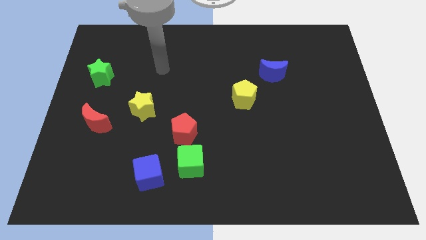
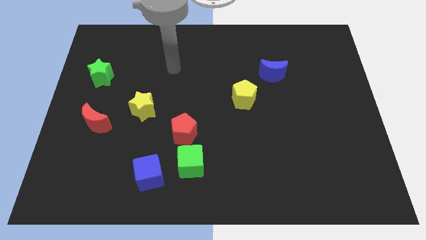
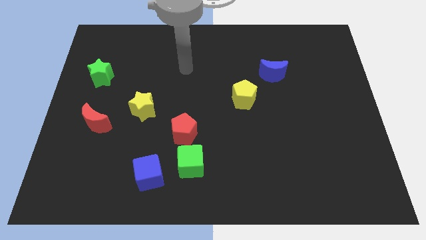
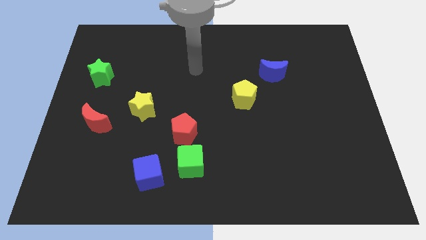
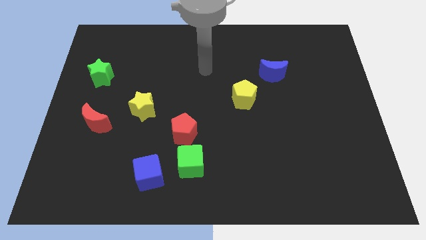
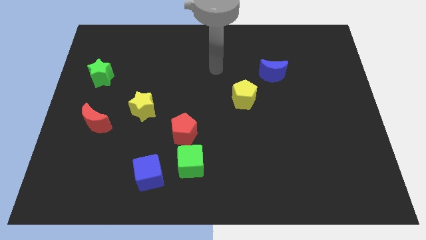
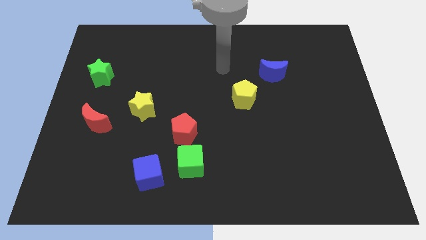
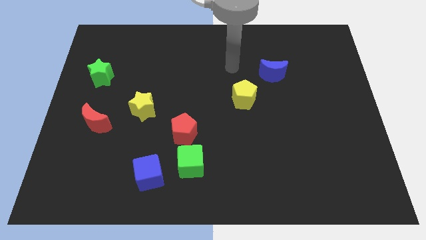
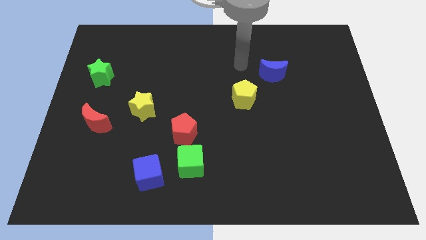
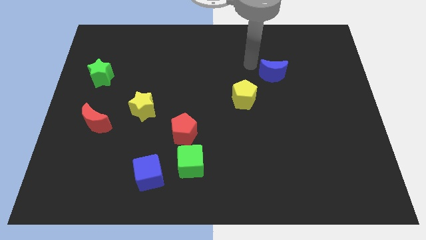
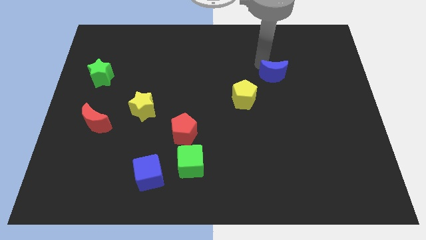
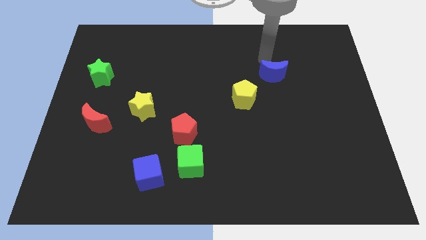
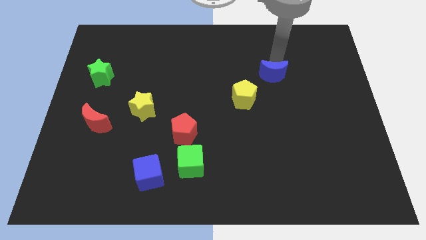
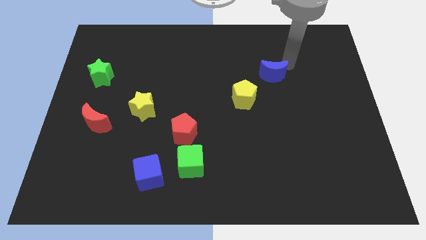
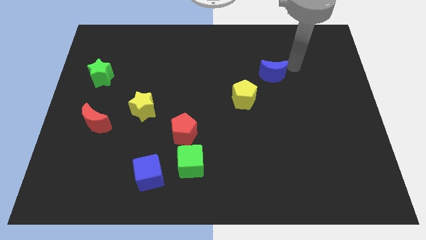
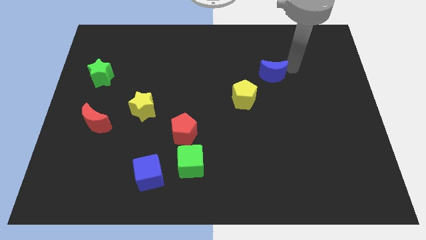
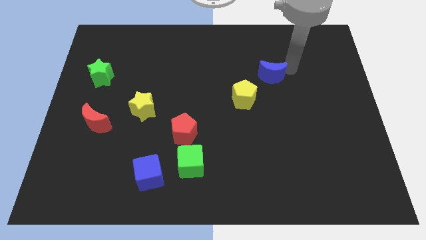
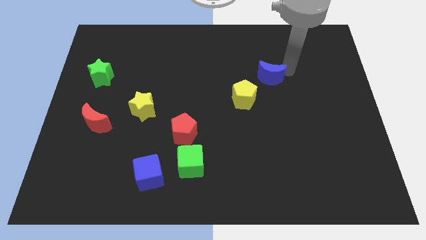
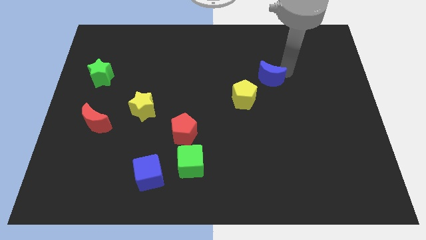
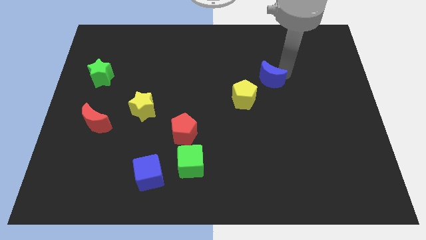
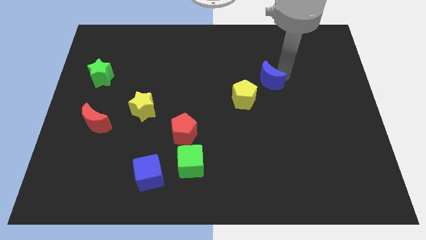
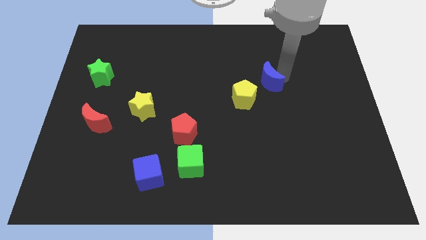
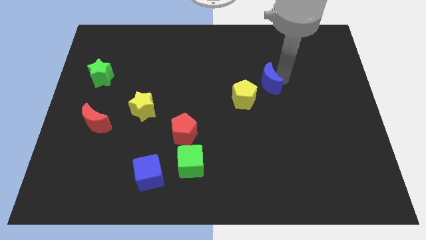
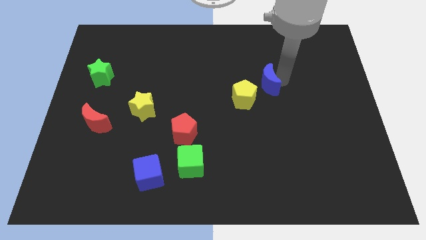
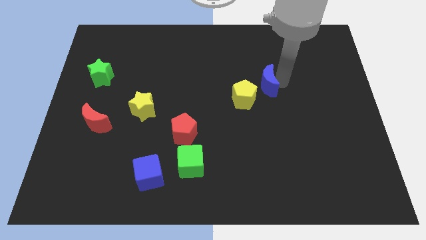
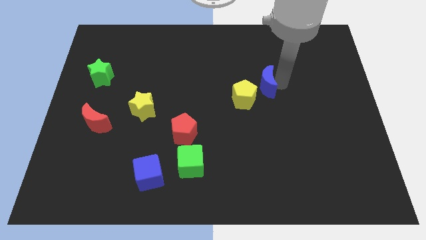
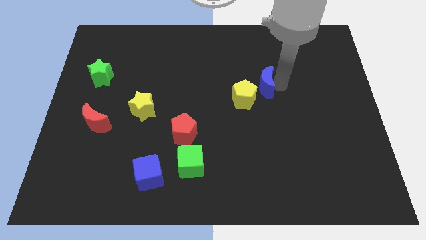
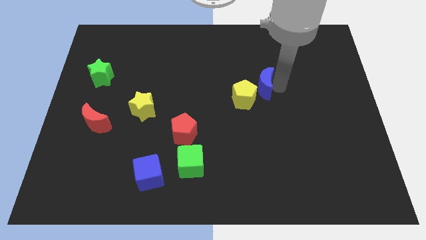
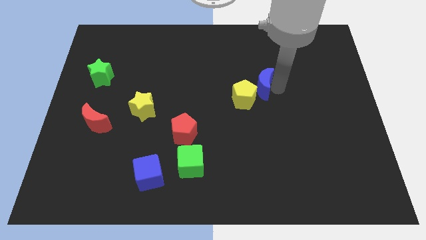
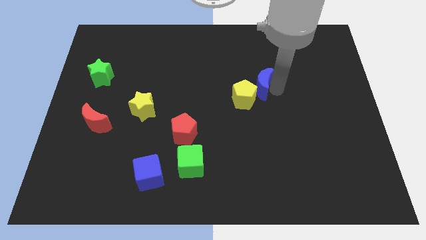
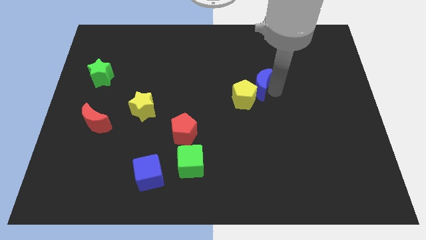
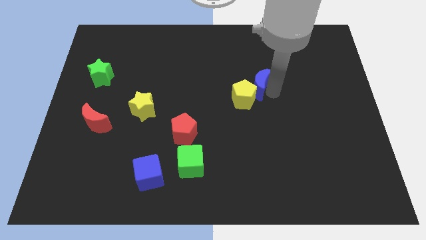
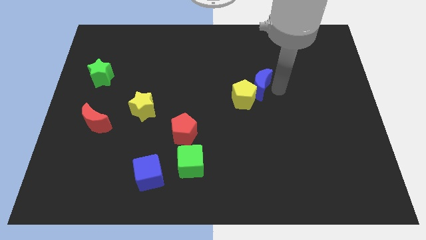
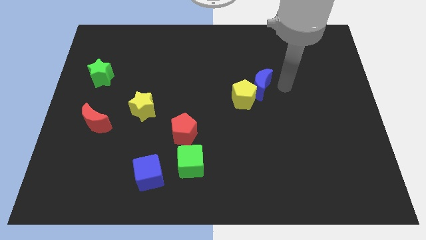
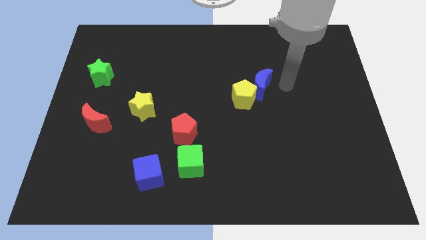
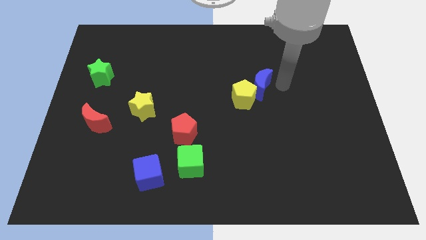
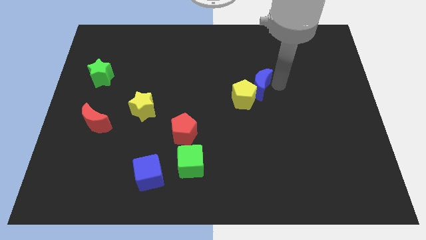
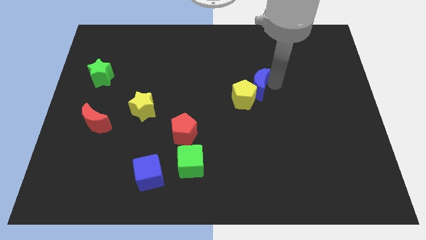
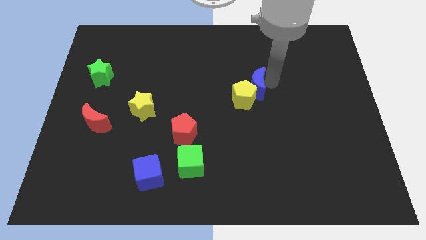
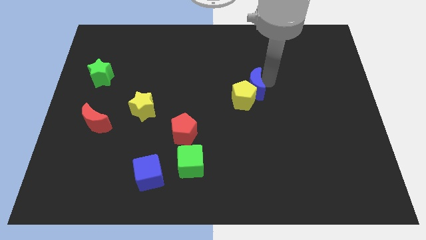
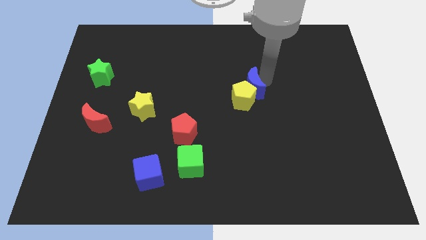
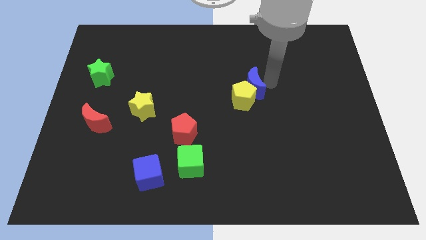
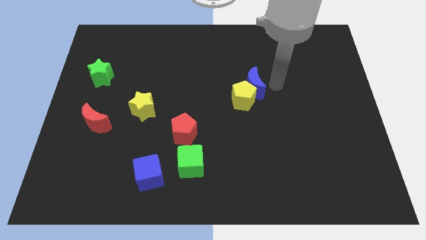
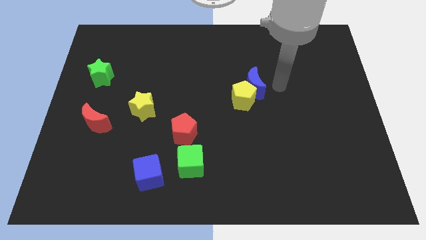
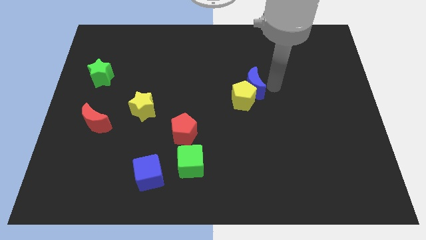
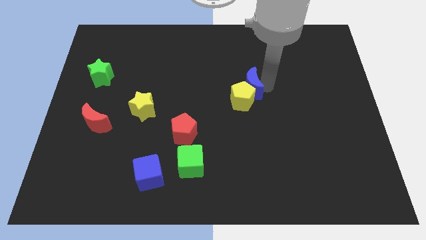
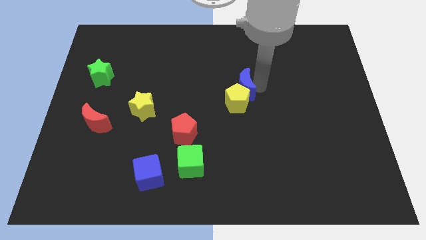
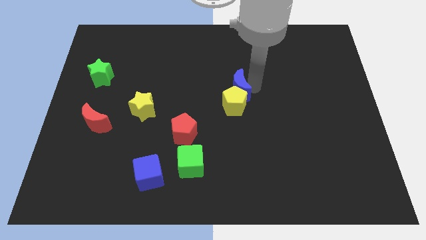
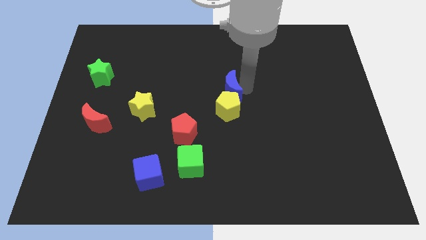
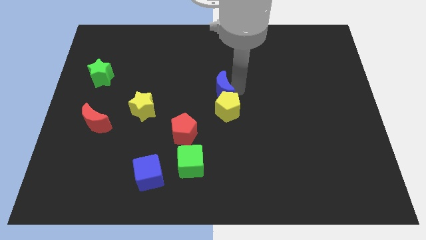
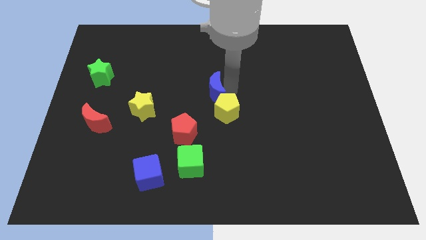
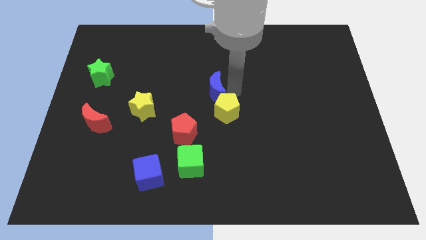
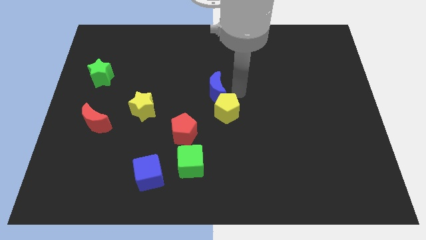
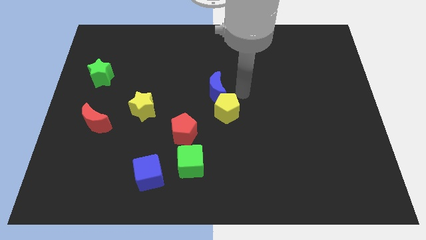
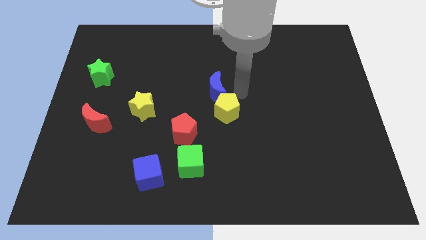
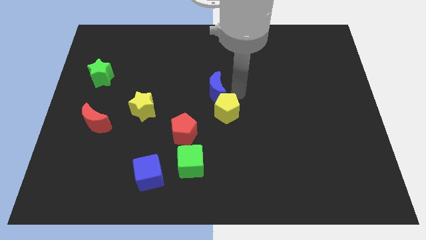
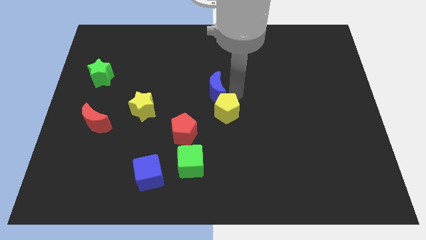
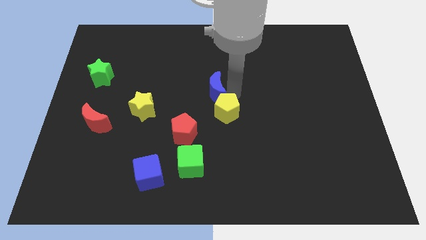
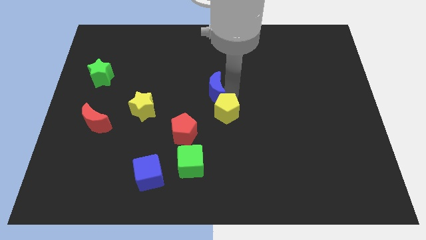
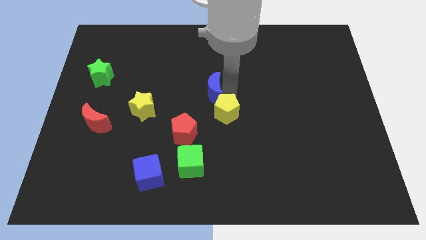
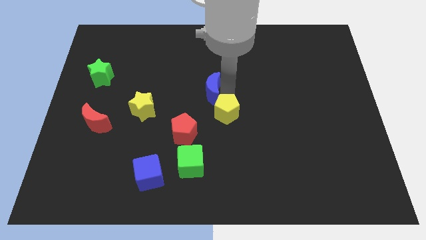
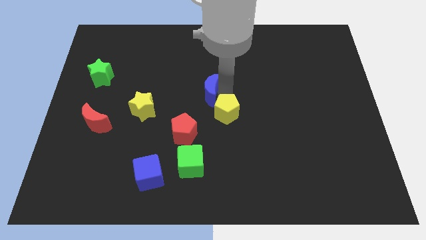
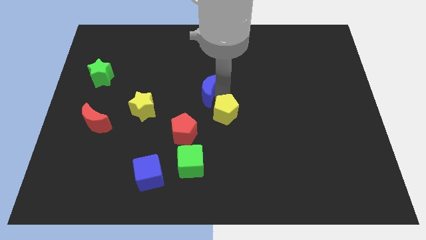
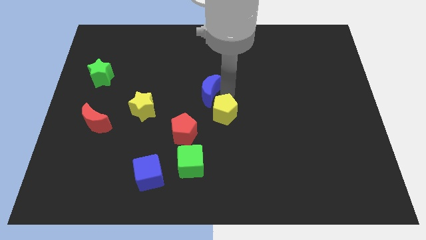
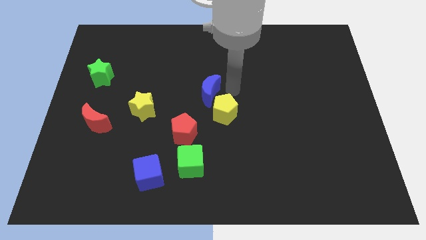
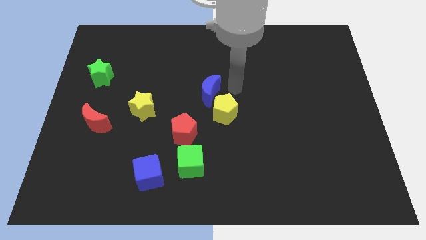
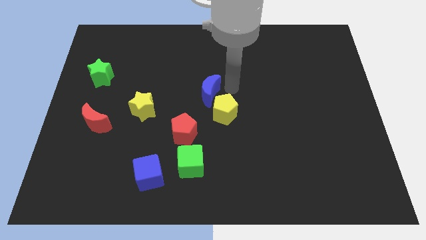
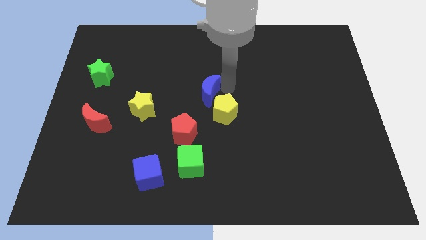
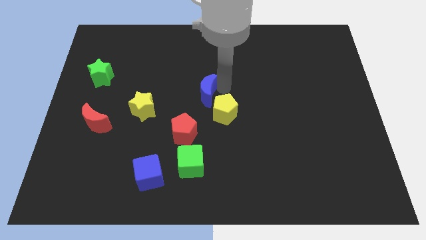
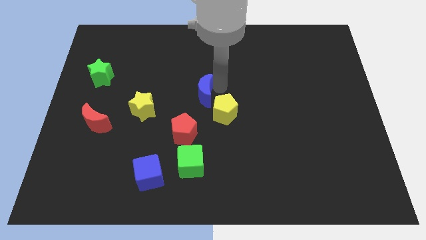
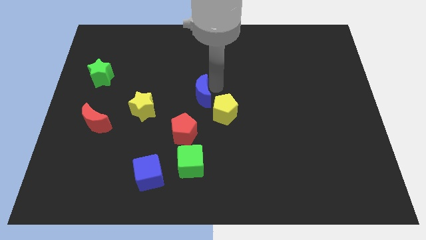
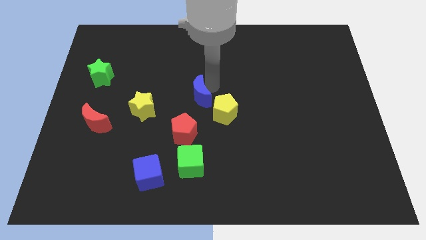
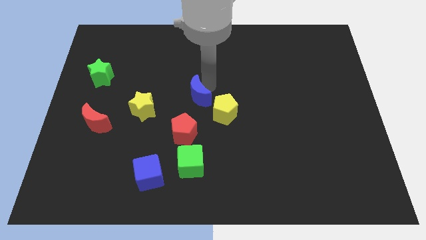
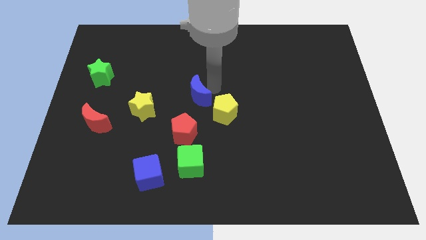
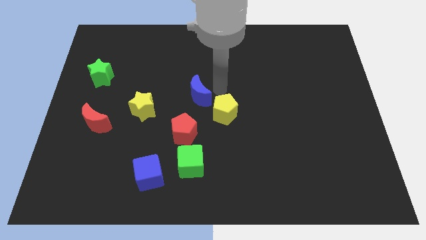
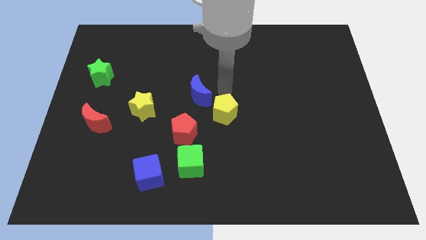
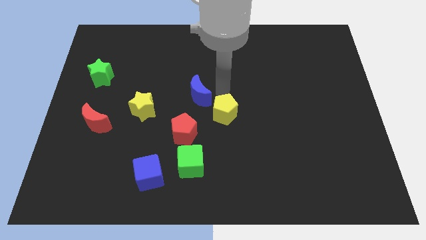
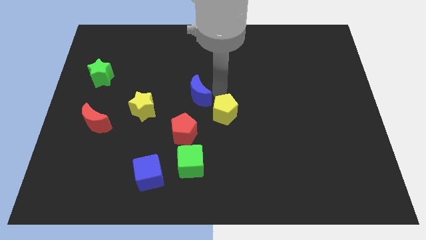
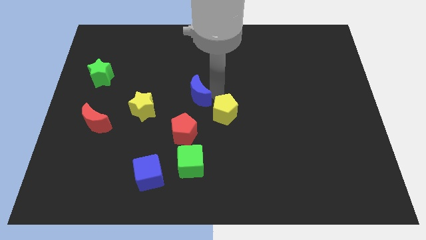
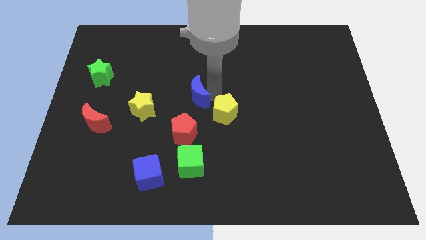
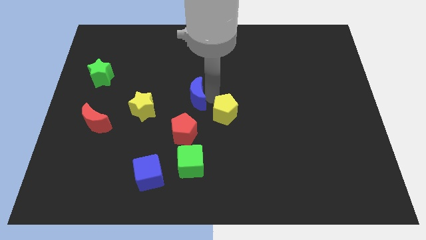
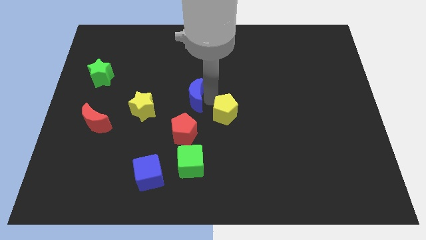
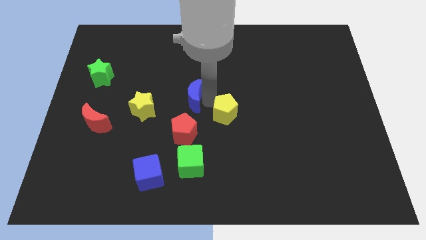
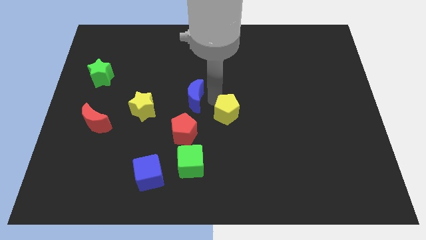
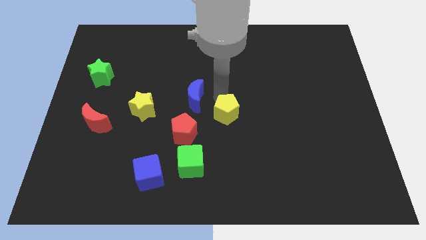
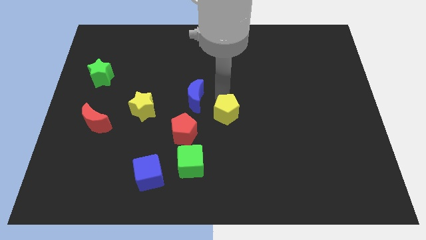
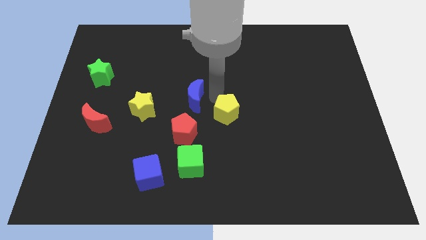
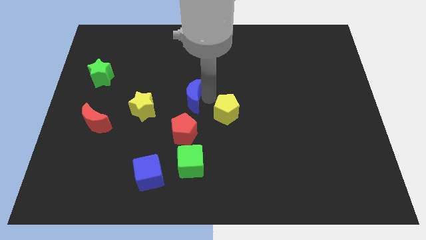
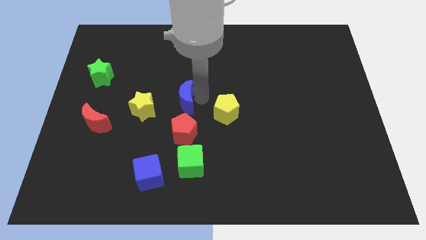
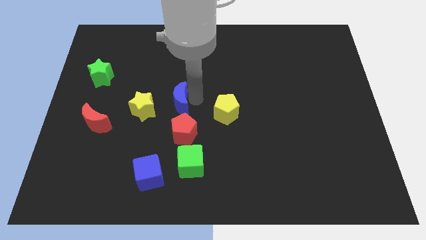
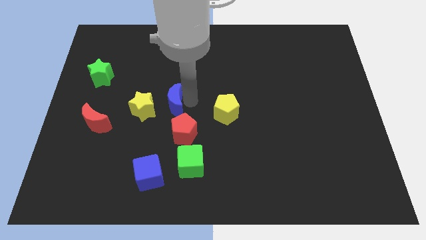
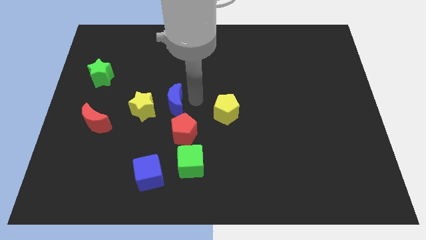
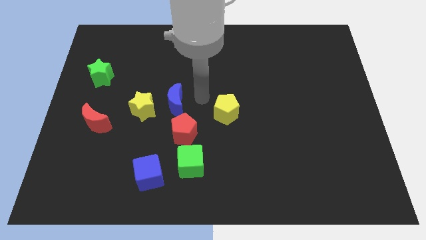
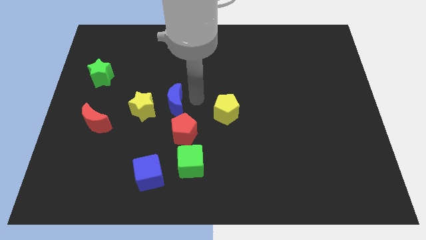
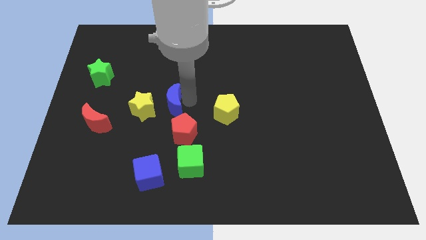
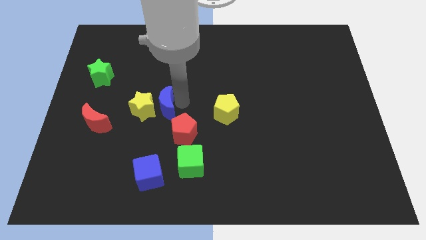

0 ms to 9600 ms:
put the blue moon close to the yellow star
